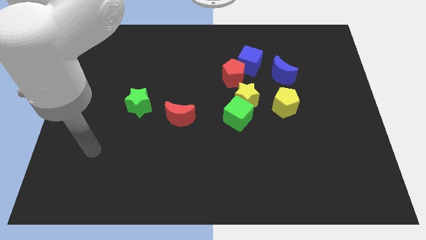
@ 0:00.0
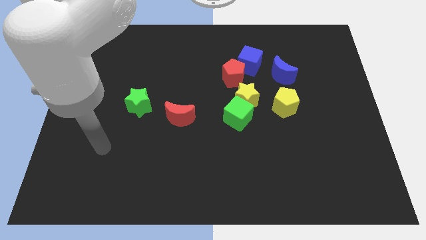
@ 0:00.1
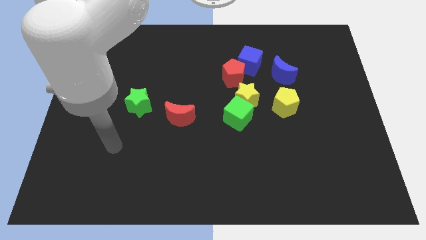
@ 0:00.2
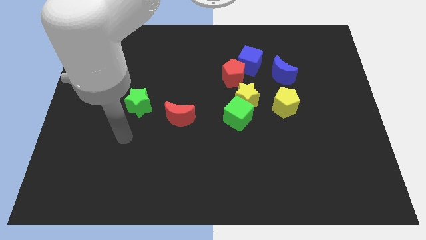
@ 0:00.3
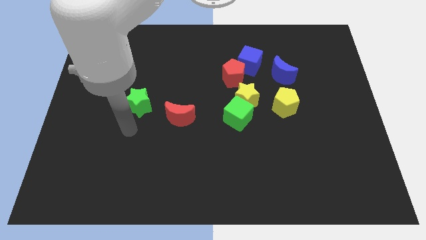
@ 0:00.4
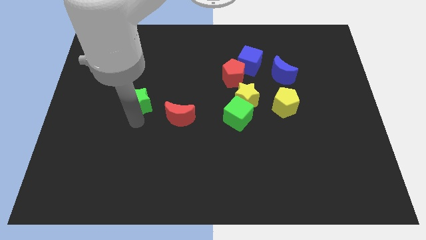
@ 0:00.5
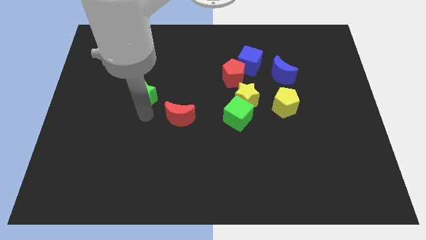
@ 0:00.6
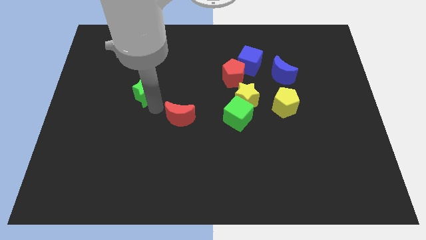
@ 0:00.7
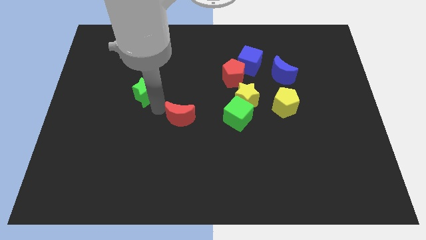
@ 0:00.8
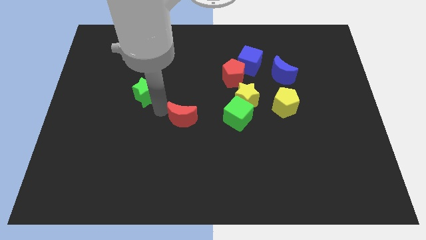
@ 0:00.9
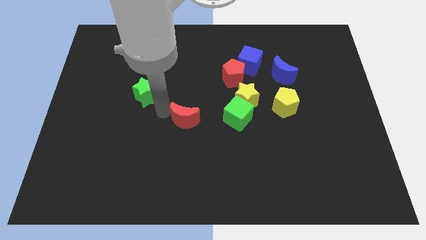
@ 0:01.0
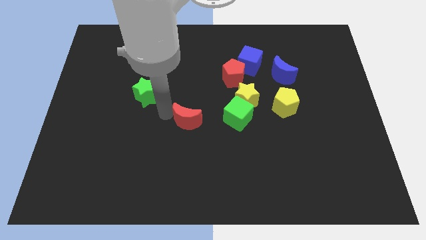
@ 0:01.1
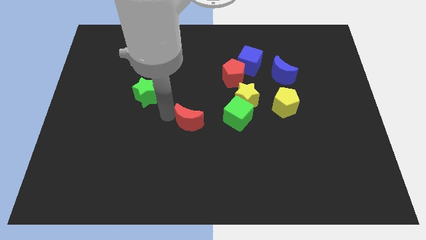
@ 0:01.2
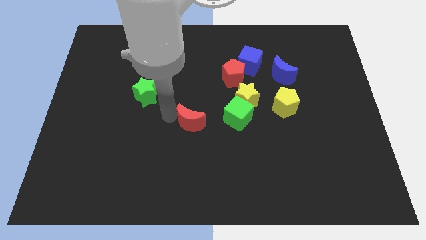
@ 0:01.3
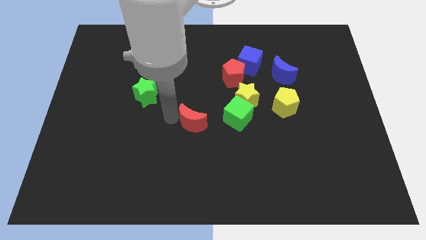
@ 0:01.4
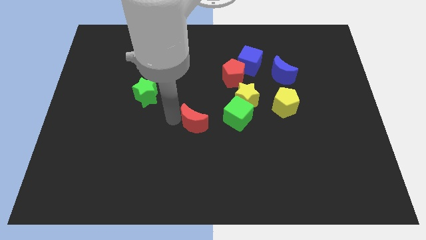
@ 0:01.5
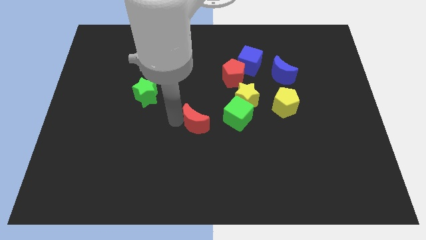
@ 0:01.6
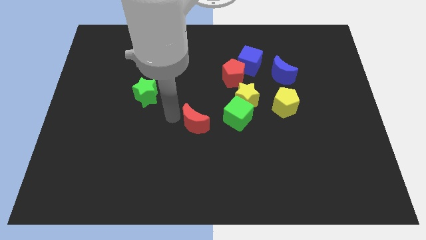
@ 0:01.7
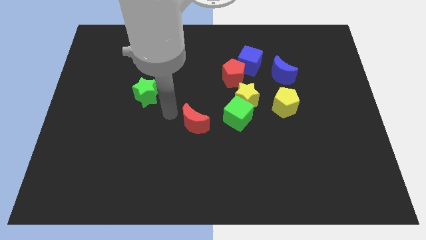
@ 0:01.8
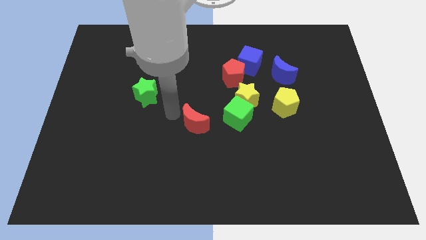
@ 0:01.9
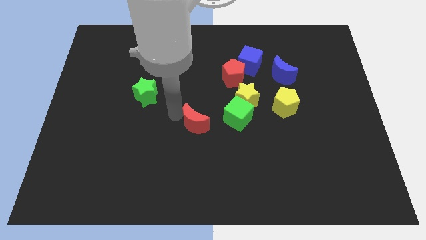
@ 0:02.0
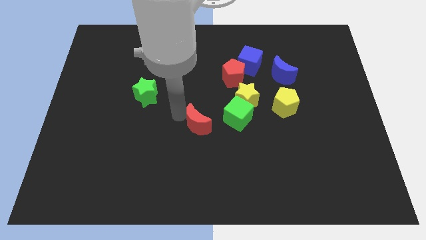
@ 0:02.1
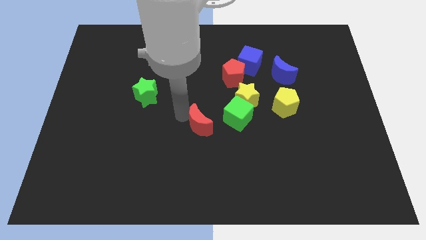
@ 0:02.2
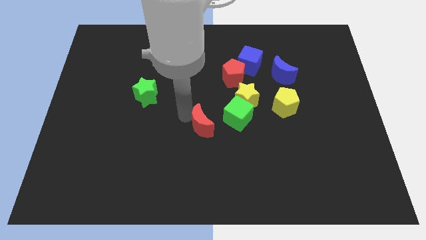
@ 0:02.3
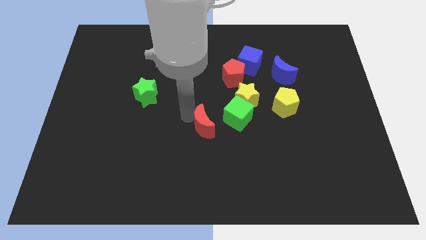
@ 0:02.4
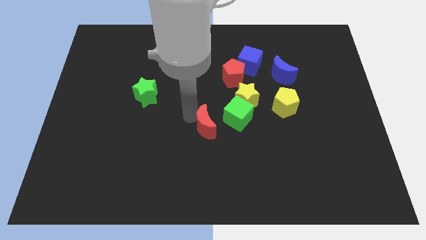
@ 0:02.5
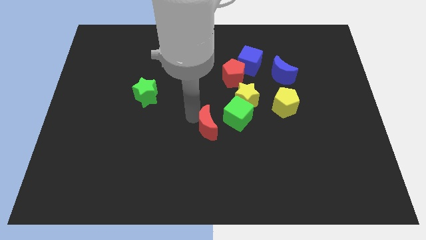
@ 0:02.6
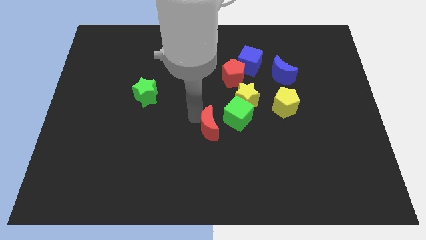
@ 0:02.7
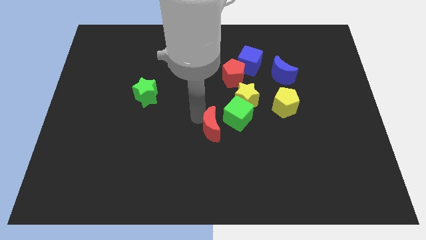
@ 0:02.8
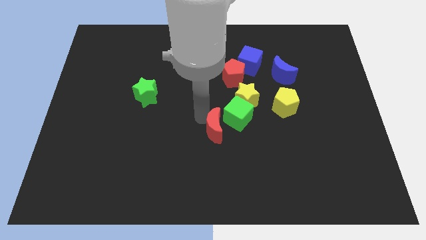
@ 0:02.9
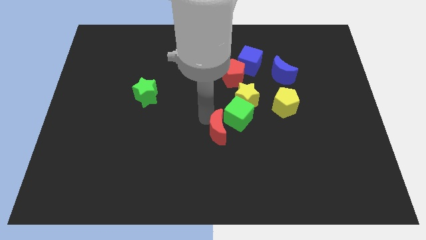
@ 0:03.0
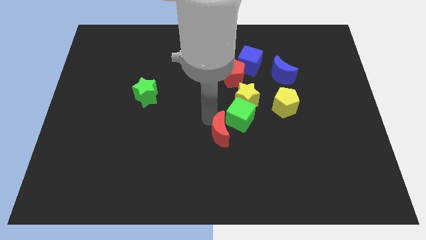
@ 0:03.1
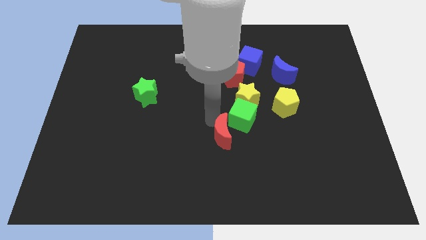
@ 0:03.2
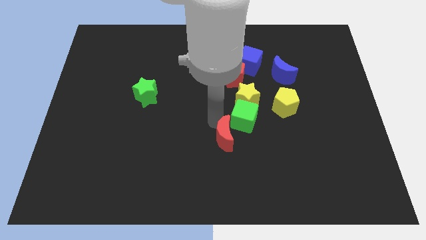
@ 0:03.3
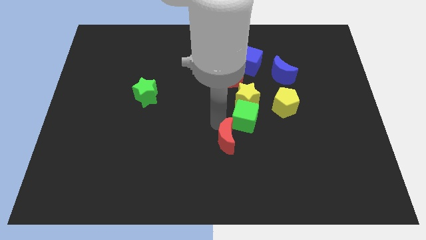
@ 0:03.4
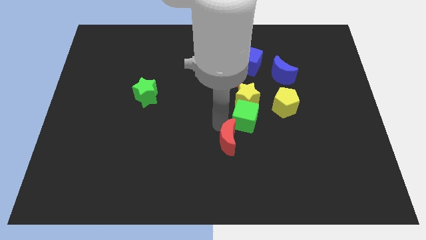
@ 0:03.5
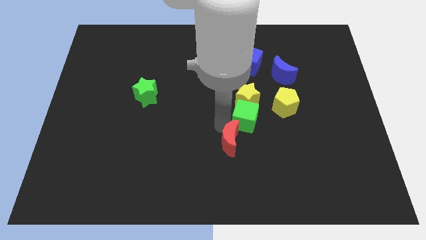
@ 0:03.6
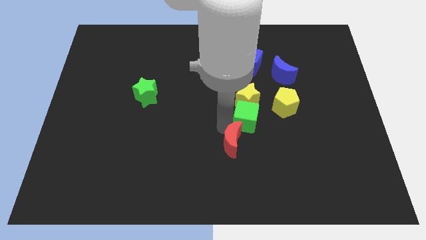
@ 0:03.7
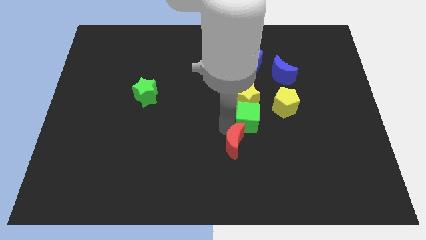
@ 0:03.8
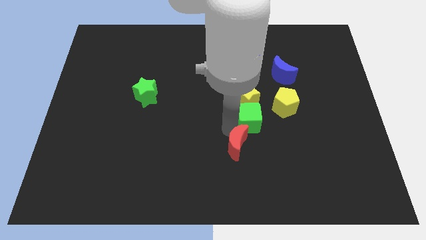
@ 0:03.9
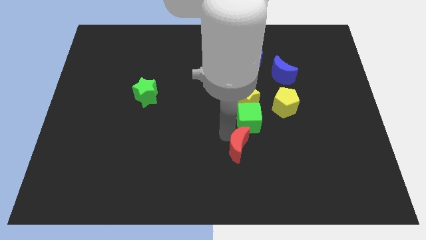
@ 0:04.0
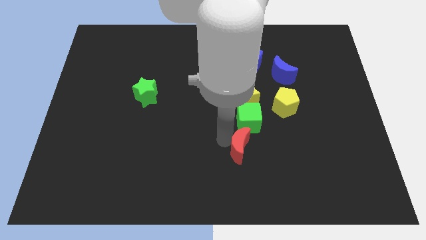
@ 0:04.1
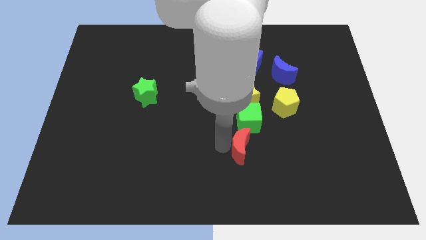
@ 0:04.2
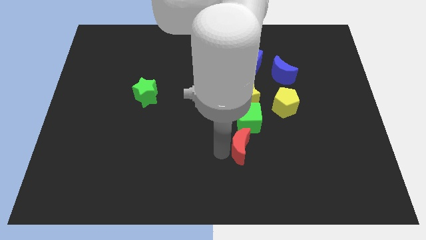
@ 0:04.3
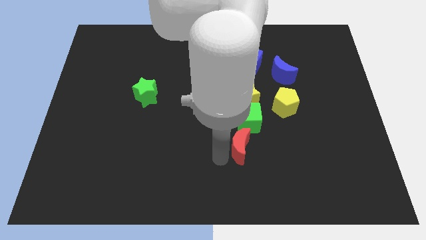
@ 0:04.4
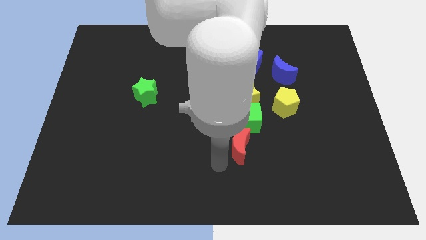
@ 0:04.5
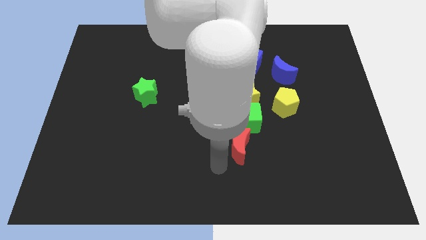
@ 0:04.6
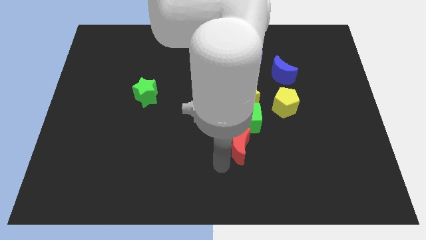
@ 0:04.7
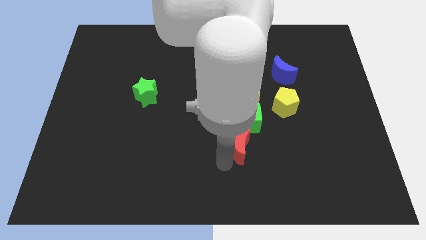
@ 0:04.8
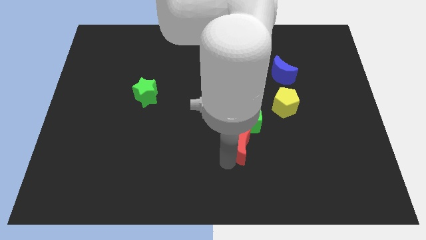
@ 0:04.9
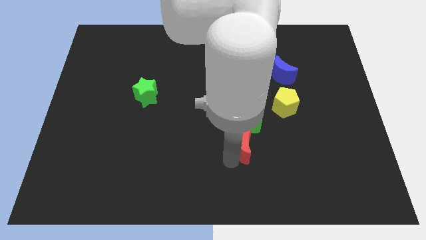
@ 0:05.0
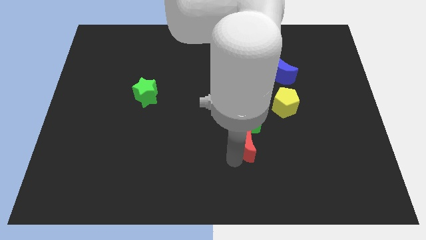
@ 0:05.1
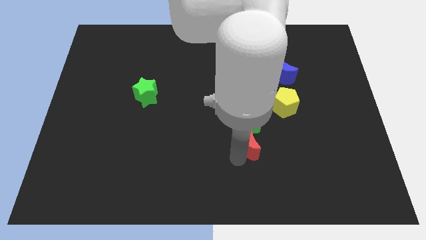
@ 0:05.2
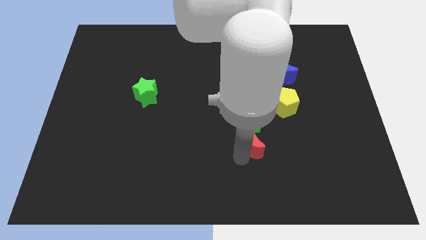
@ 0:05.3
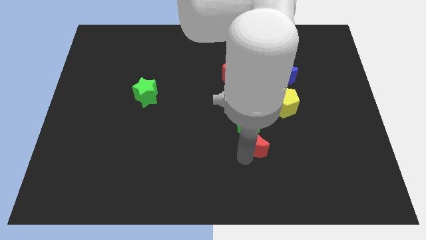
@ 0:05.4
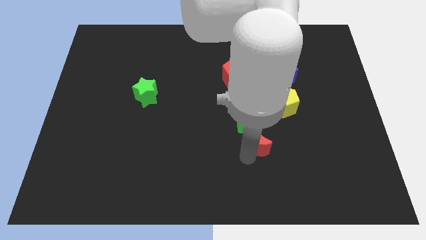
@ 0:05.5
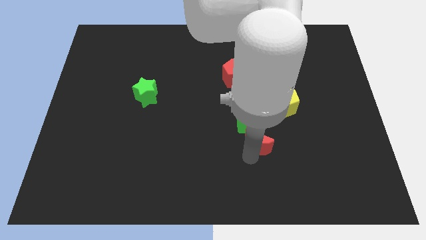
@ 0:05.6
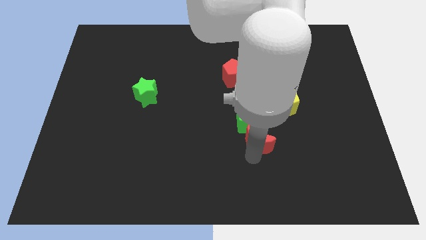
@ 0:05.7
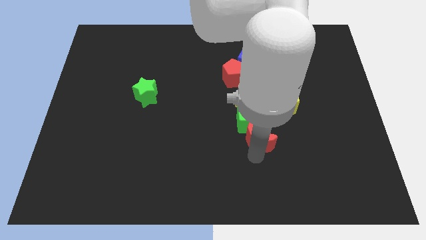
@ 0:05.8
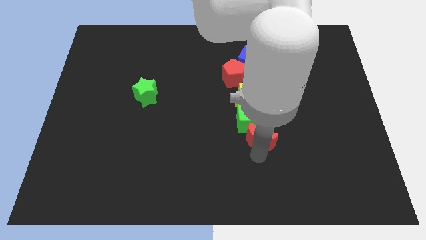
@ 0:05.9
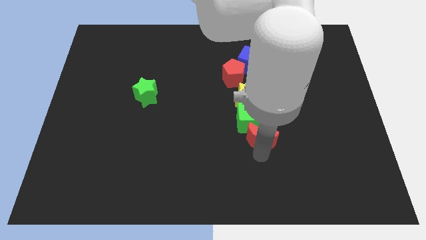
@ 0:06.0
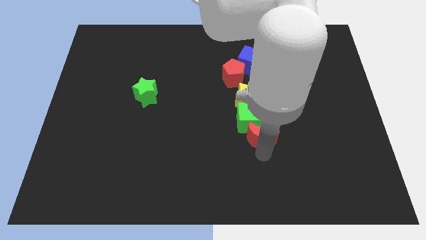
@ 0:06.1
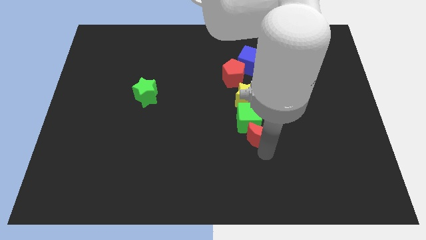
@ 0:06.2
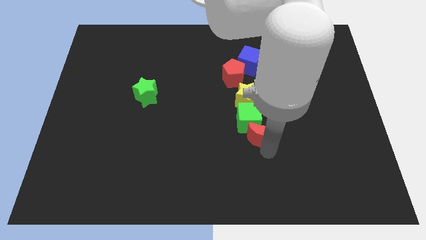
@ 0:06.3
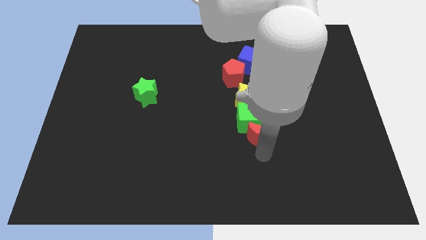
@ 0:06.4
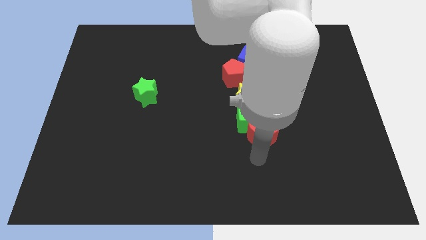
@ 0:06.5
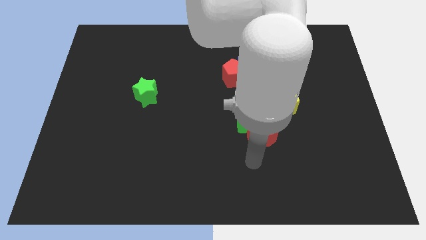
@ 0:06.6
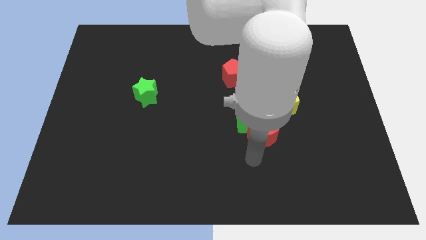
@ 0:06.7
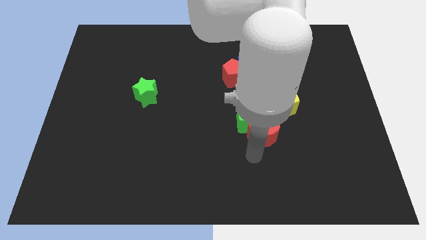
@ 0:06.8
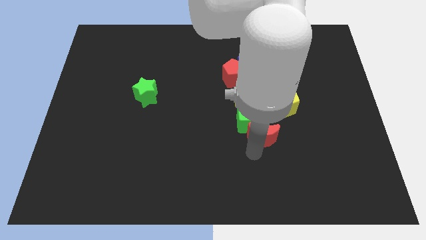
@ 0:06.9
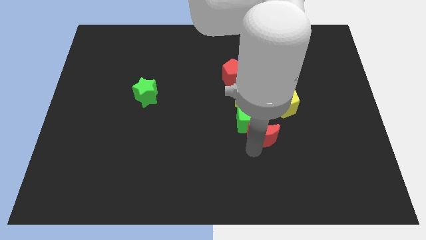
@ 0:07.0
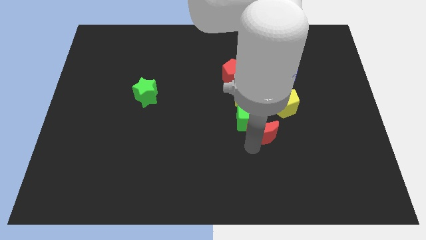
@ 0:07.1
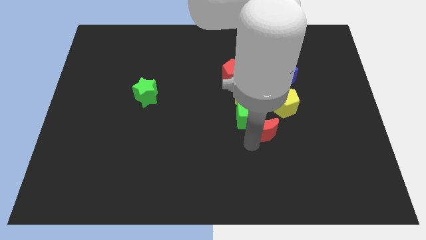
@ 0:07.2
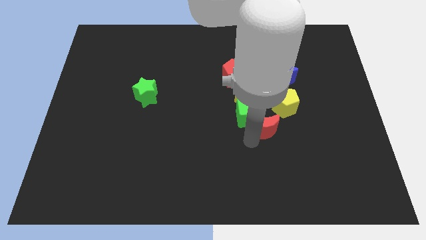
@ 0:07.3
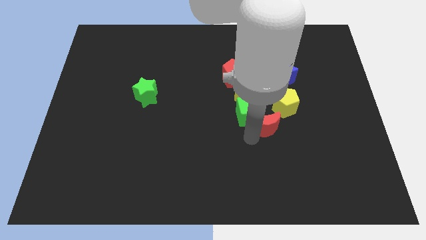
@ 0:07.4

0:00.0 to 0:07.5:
slide the red moon to the bottom right of the yellow star
